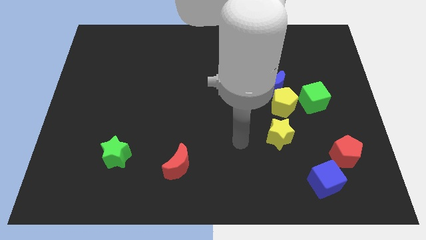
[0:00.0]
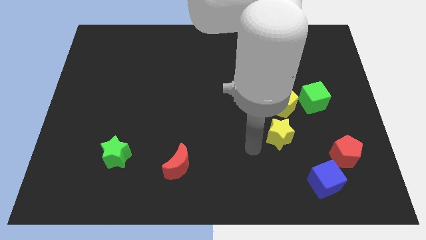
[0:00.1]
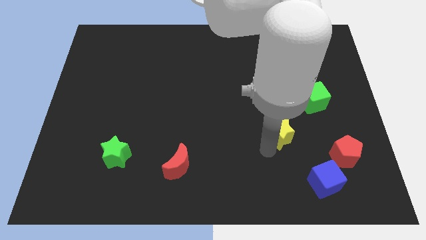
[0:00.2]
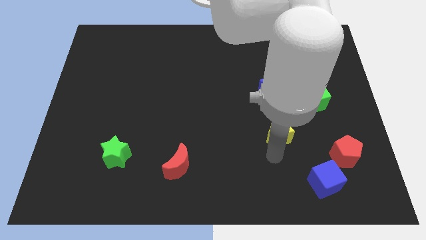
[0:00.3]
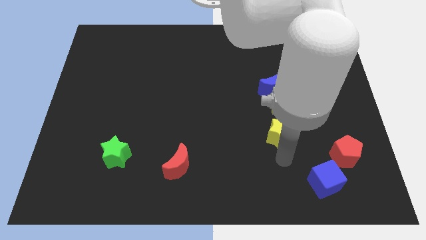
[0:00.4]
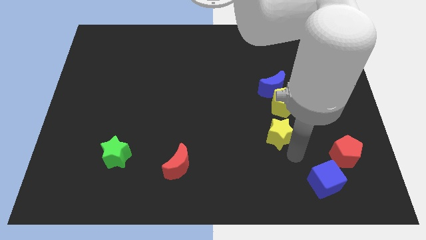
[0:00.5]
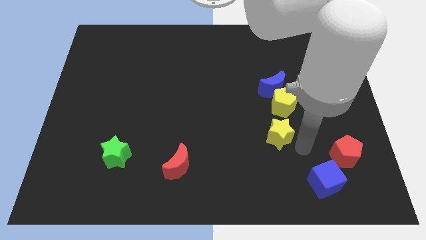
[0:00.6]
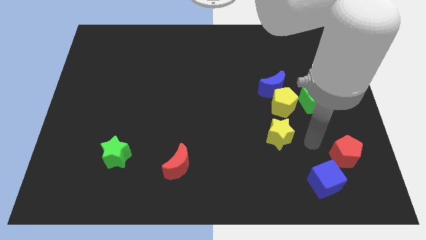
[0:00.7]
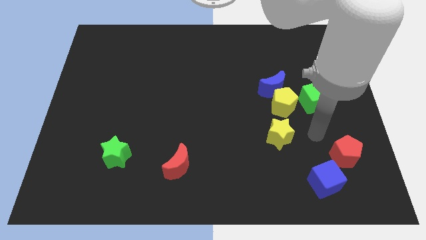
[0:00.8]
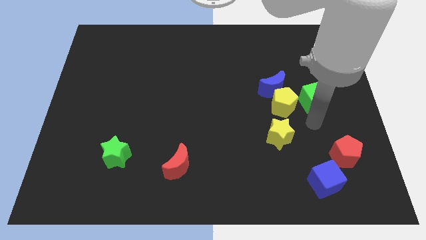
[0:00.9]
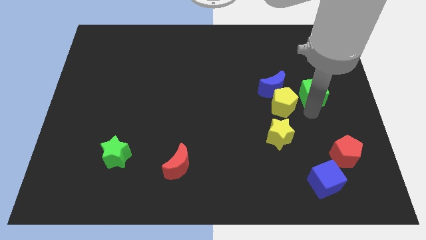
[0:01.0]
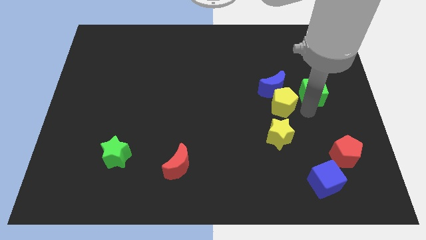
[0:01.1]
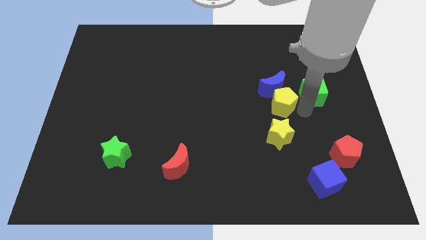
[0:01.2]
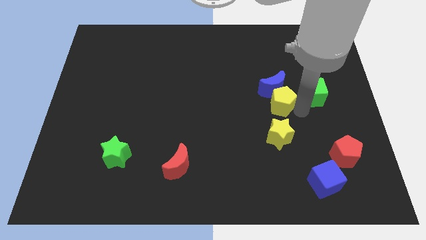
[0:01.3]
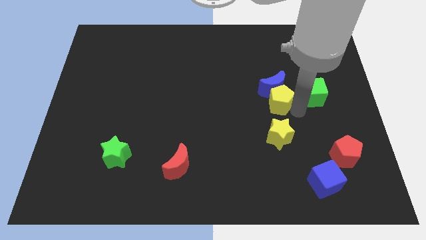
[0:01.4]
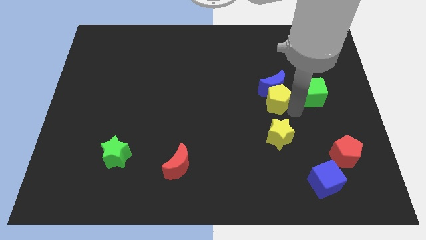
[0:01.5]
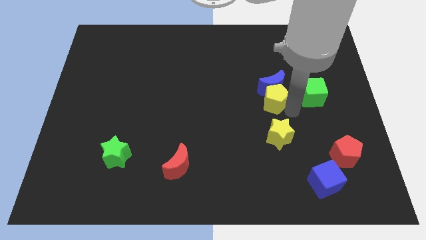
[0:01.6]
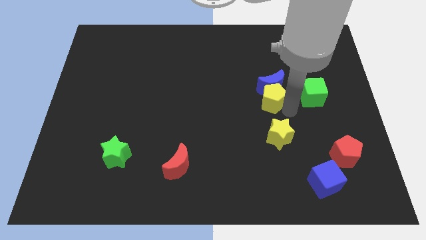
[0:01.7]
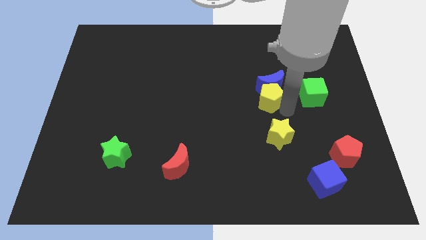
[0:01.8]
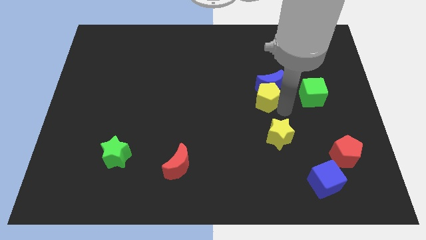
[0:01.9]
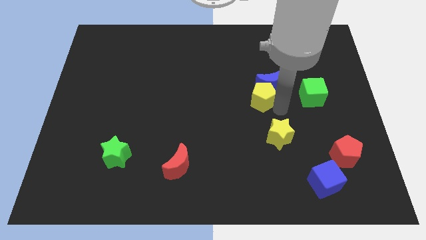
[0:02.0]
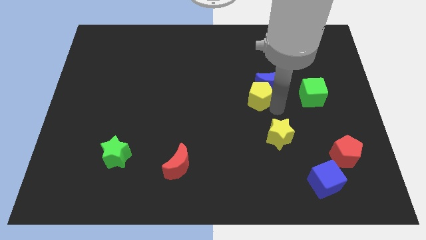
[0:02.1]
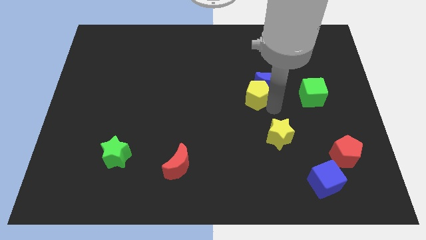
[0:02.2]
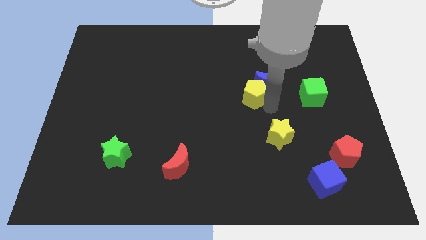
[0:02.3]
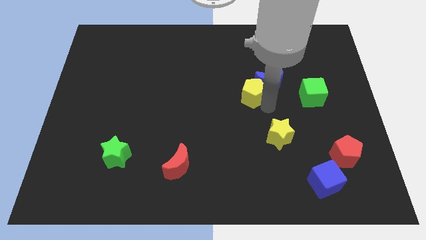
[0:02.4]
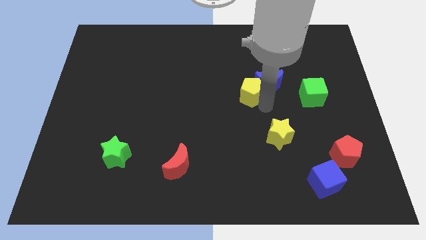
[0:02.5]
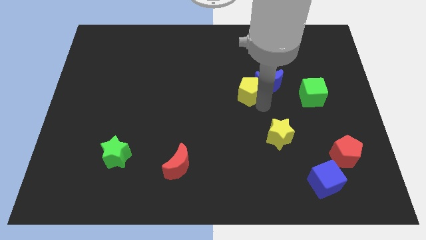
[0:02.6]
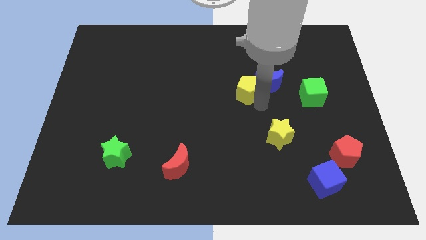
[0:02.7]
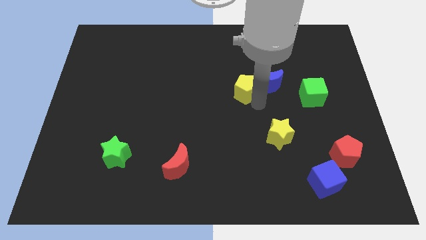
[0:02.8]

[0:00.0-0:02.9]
pull the yellow pentagon apart from the group

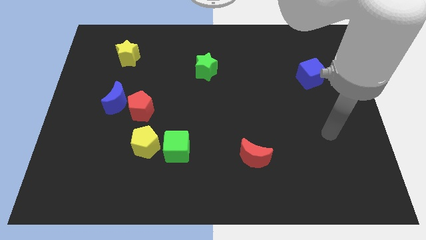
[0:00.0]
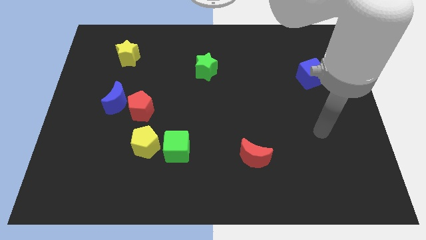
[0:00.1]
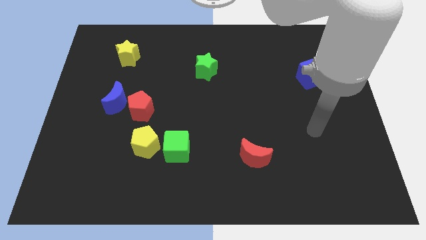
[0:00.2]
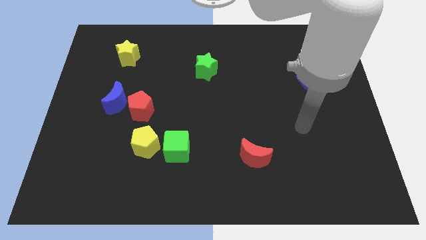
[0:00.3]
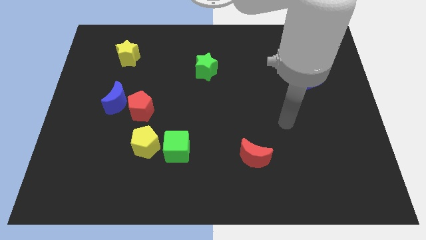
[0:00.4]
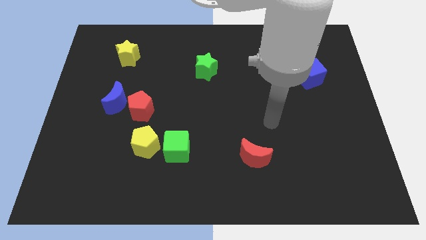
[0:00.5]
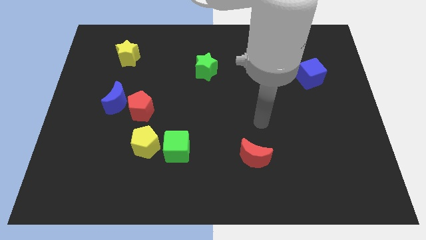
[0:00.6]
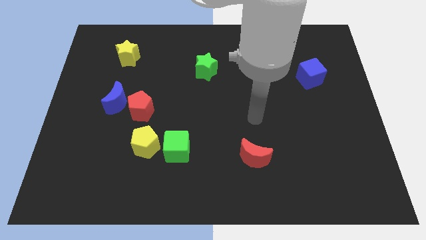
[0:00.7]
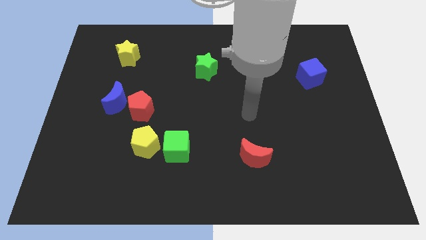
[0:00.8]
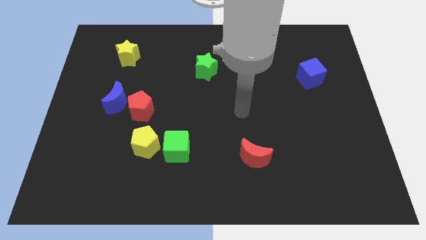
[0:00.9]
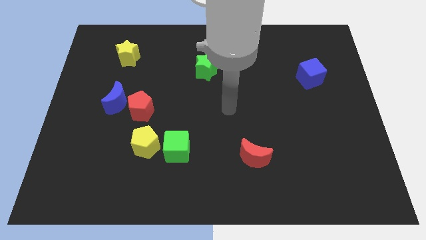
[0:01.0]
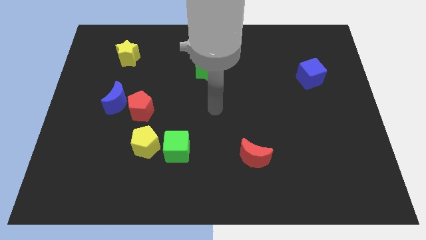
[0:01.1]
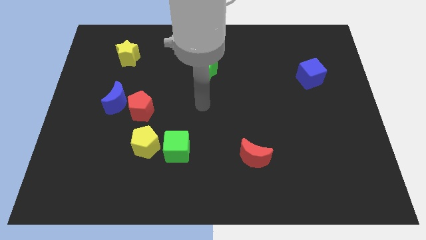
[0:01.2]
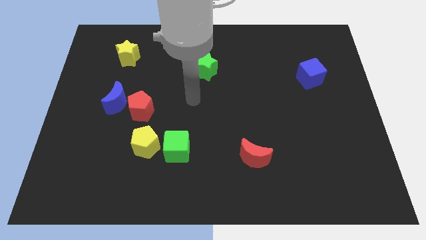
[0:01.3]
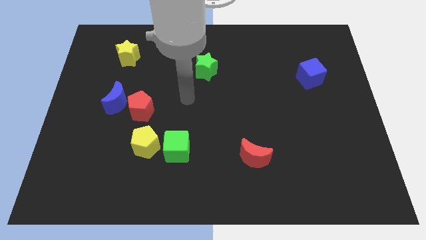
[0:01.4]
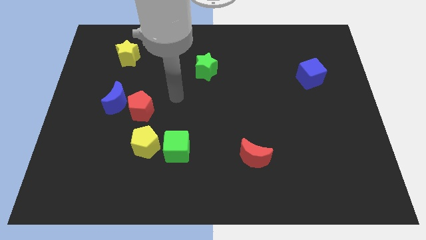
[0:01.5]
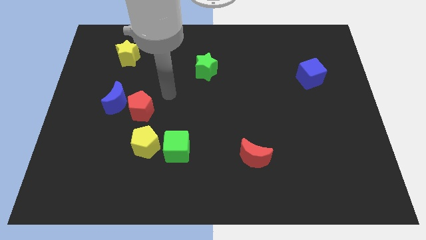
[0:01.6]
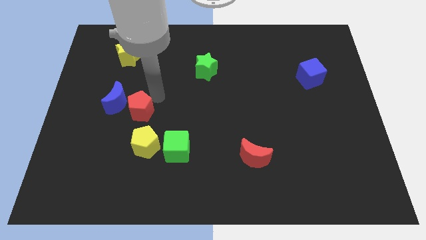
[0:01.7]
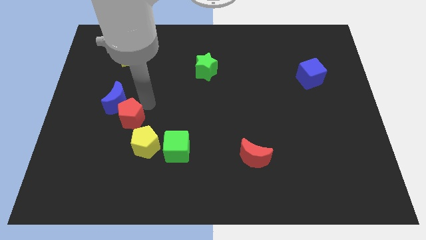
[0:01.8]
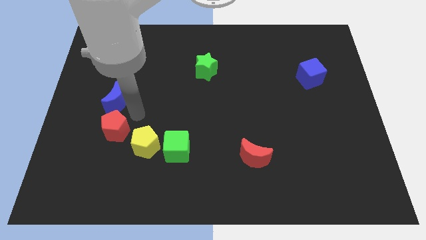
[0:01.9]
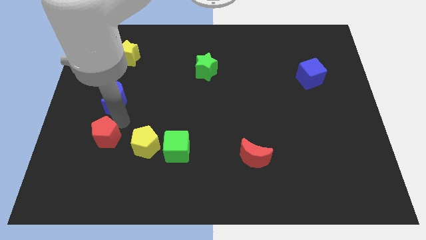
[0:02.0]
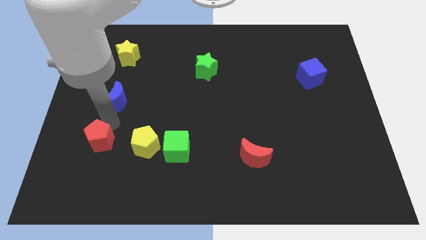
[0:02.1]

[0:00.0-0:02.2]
pull the blue moon apart from the red pentagon

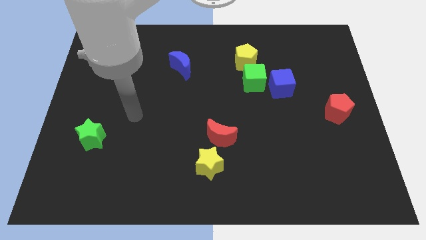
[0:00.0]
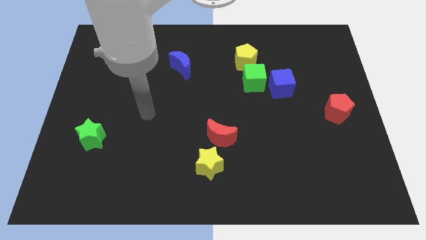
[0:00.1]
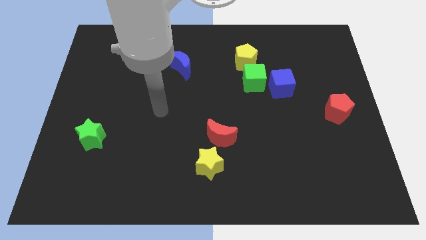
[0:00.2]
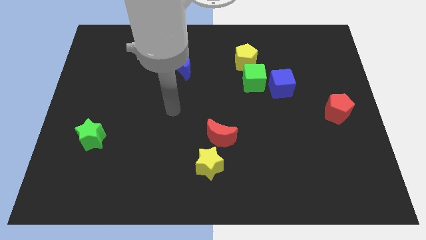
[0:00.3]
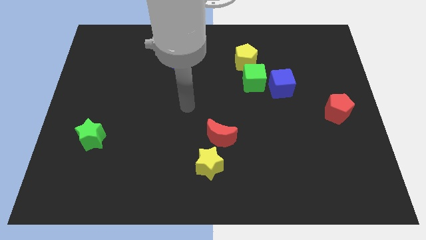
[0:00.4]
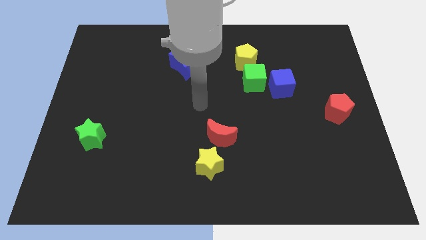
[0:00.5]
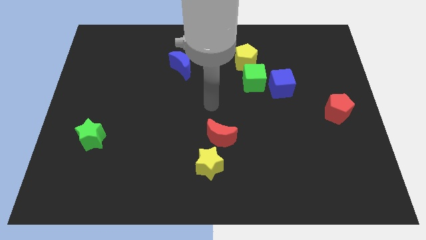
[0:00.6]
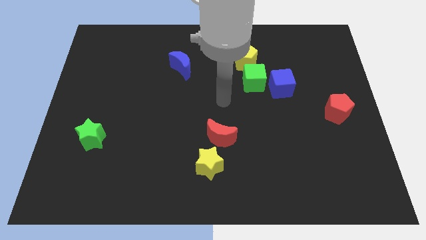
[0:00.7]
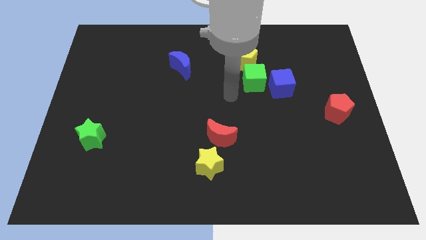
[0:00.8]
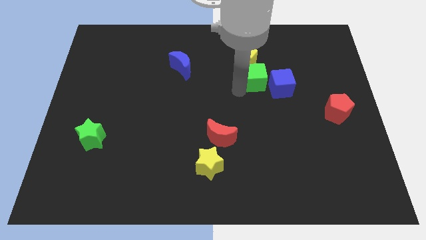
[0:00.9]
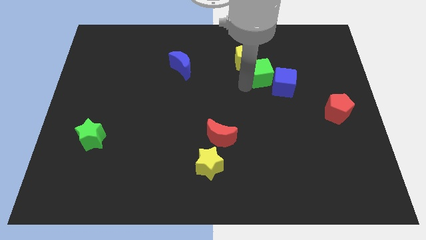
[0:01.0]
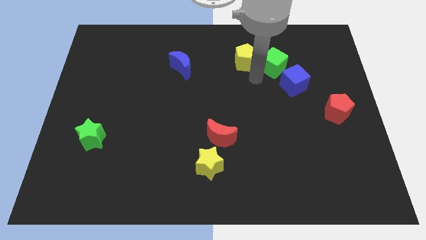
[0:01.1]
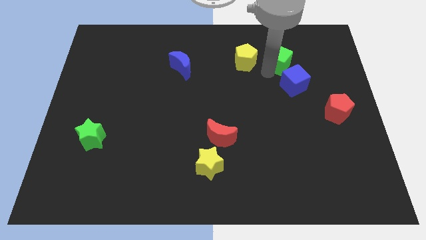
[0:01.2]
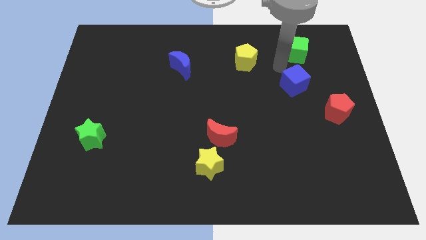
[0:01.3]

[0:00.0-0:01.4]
separate the blue cube from the green cube

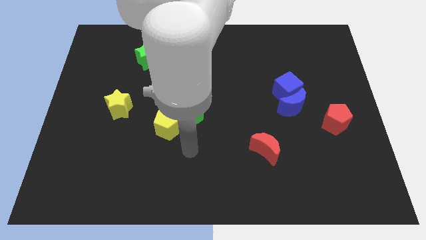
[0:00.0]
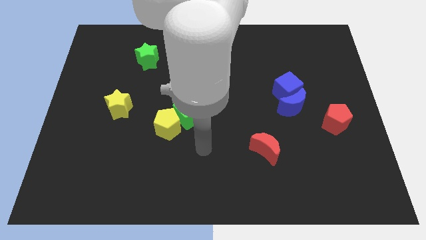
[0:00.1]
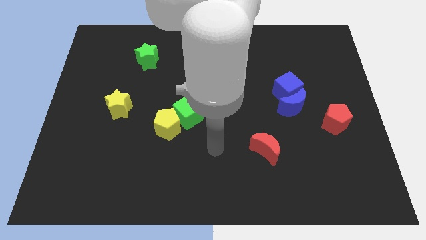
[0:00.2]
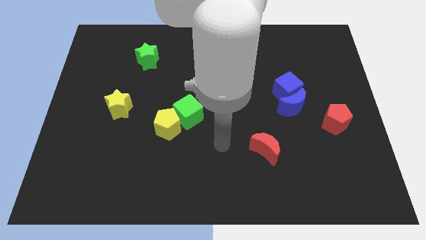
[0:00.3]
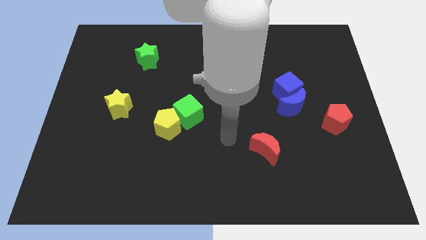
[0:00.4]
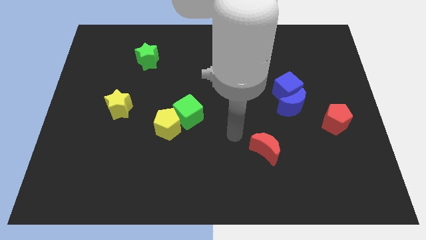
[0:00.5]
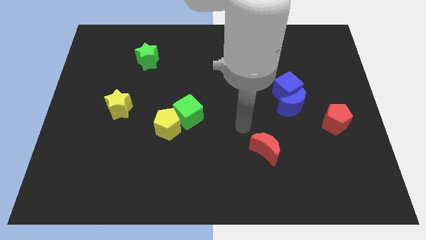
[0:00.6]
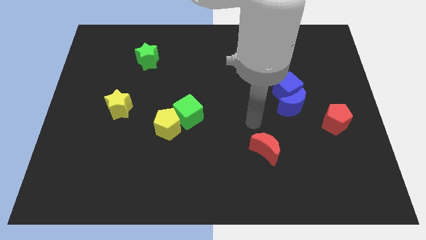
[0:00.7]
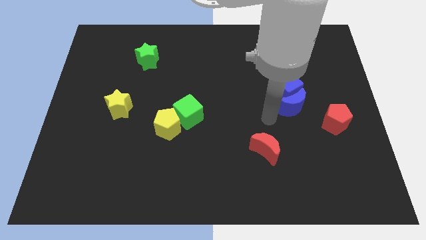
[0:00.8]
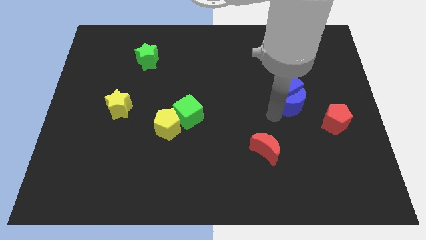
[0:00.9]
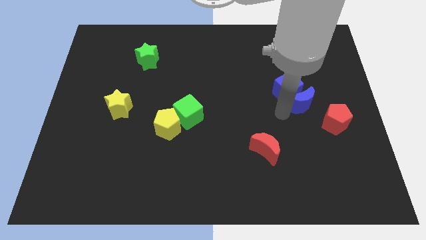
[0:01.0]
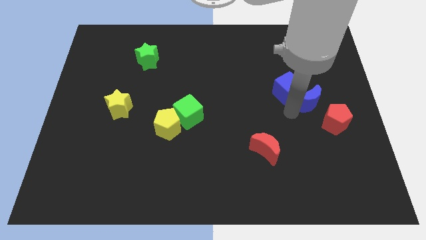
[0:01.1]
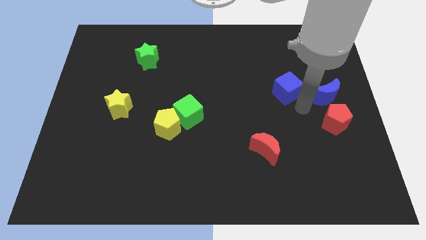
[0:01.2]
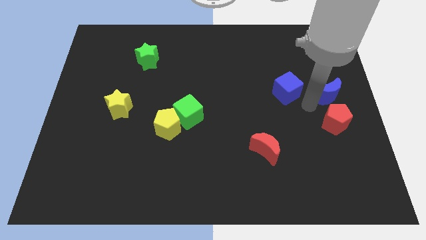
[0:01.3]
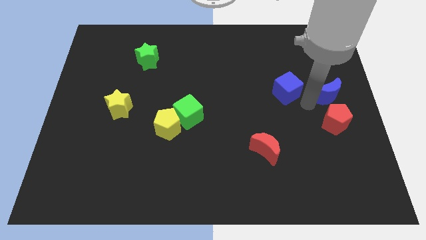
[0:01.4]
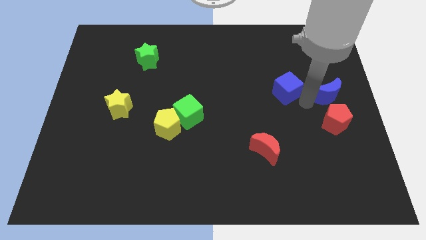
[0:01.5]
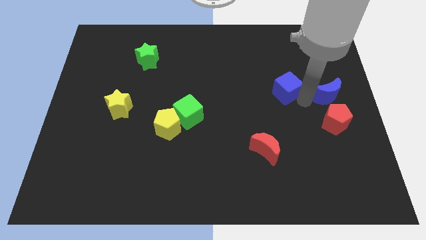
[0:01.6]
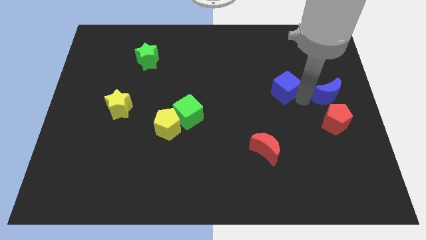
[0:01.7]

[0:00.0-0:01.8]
separate the blue cube from the blue moon

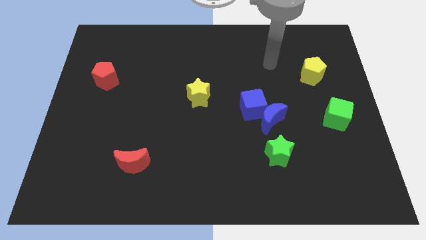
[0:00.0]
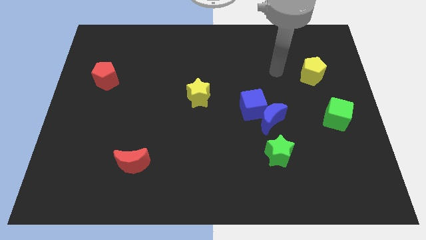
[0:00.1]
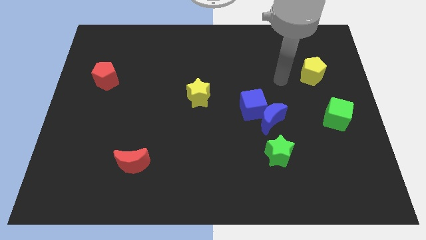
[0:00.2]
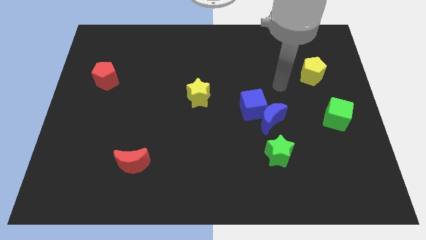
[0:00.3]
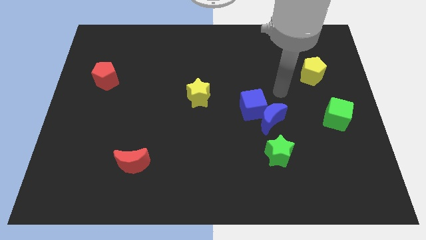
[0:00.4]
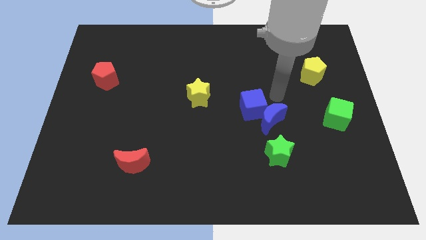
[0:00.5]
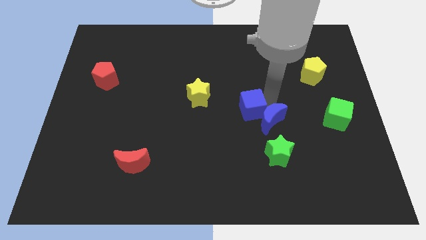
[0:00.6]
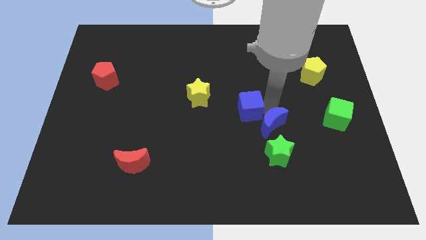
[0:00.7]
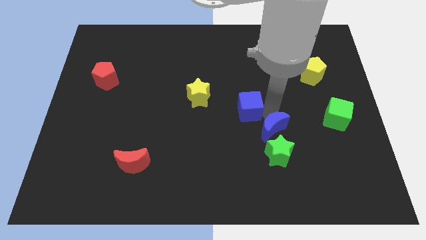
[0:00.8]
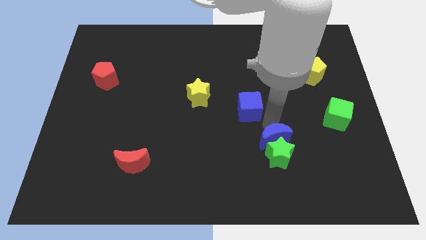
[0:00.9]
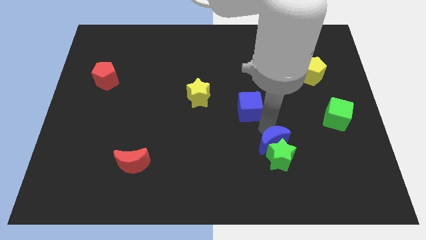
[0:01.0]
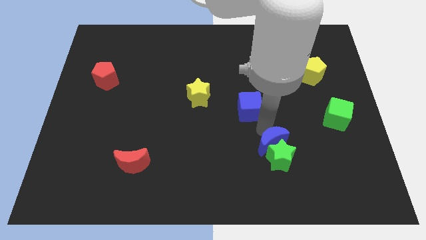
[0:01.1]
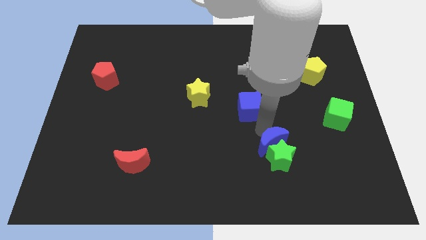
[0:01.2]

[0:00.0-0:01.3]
pull the blue cube apart from the blue moon
